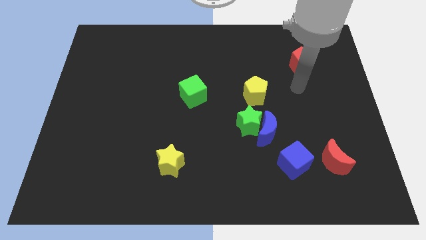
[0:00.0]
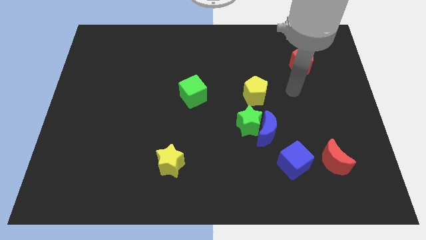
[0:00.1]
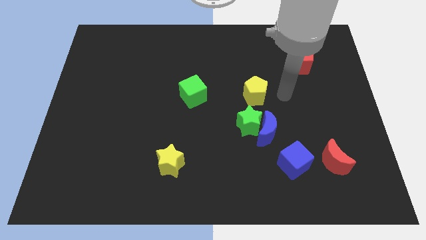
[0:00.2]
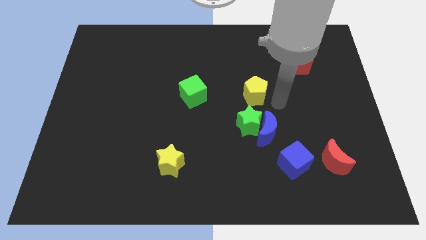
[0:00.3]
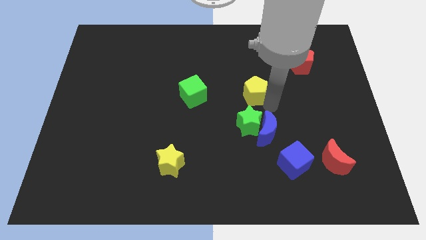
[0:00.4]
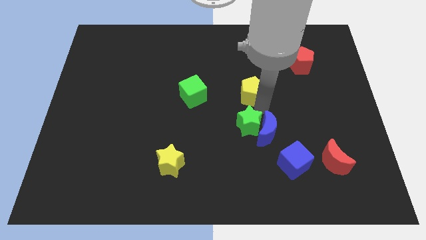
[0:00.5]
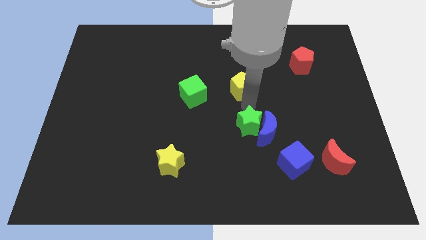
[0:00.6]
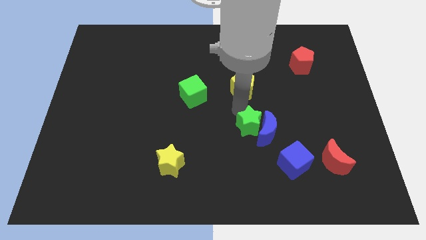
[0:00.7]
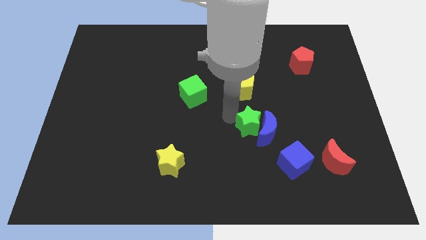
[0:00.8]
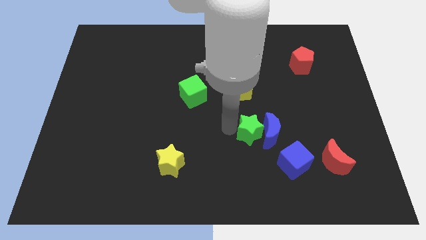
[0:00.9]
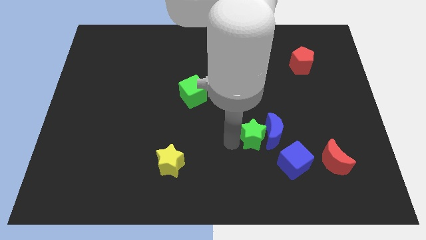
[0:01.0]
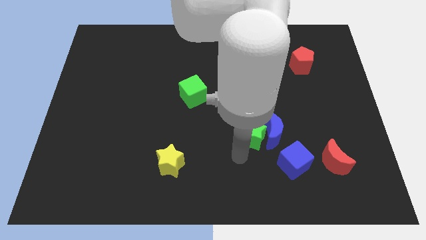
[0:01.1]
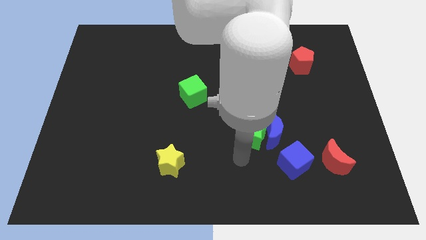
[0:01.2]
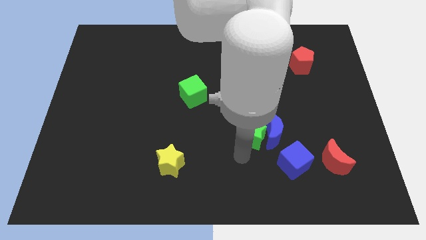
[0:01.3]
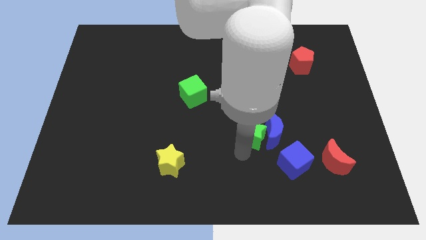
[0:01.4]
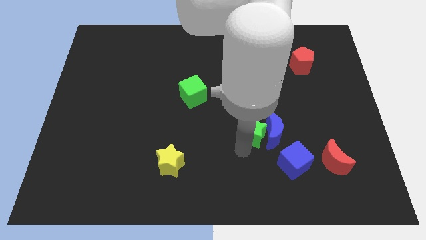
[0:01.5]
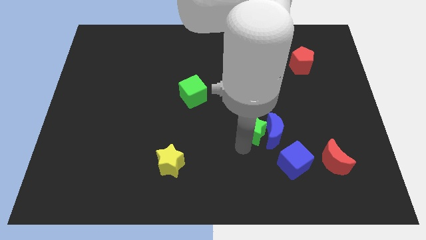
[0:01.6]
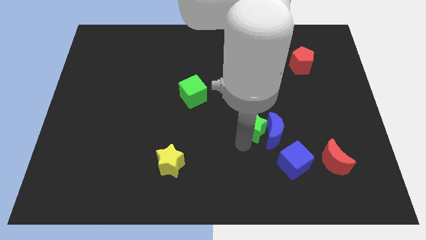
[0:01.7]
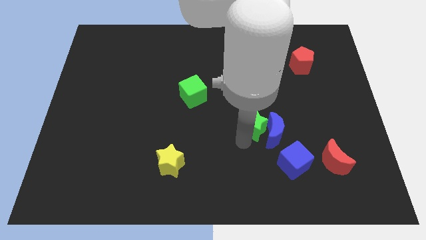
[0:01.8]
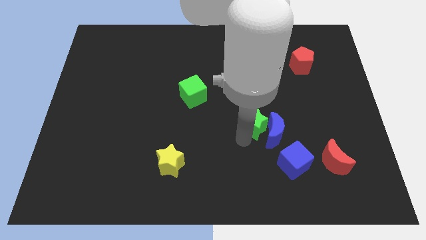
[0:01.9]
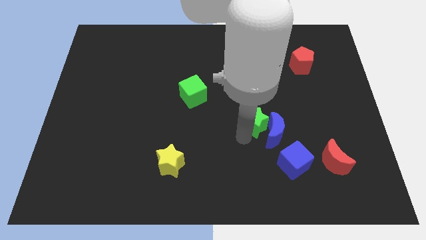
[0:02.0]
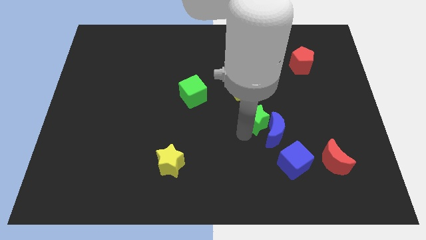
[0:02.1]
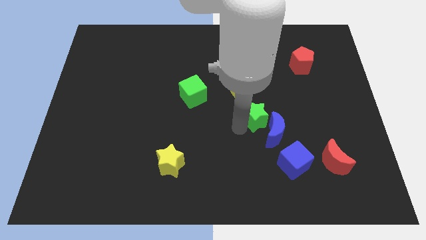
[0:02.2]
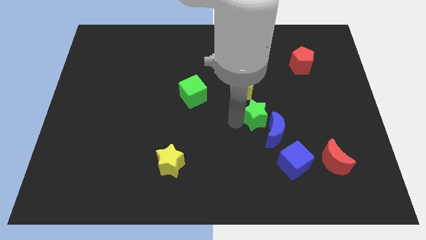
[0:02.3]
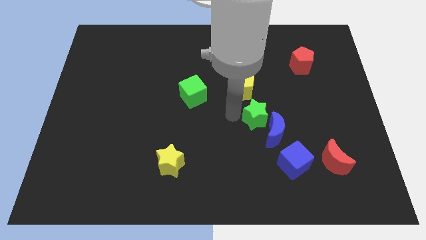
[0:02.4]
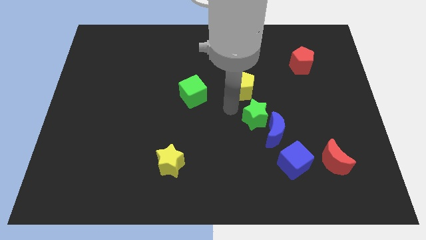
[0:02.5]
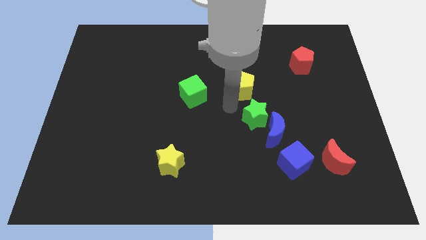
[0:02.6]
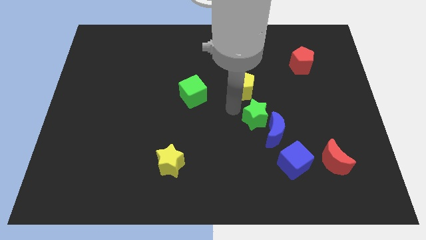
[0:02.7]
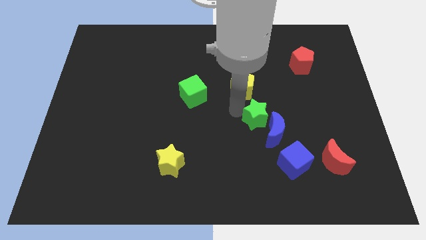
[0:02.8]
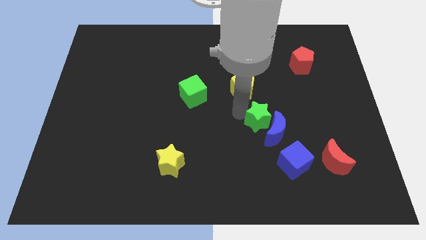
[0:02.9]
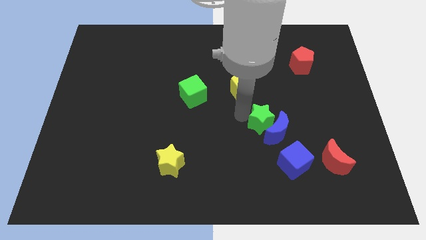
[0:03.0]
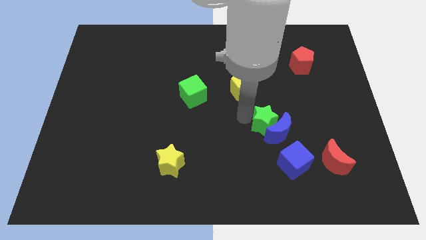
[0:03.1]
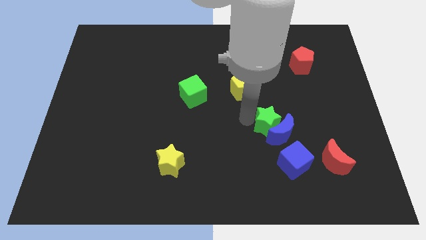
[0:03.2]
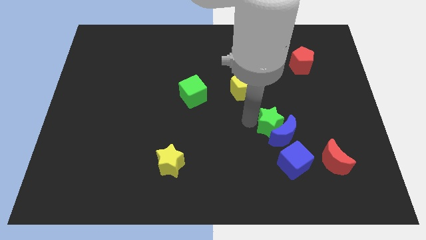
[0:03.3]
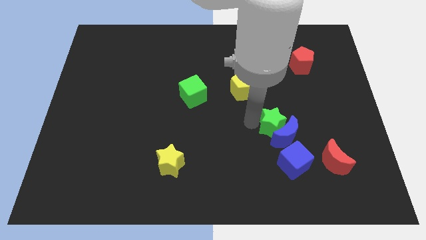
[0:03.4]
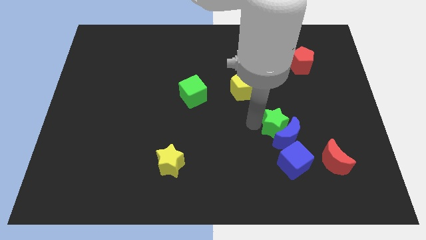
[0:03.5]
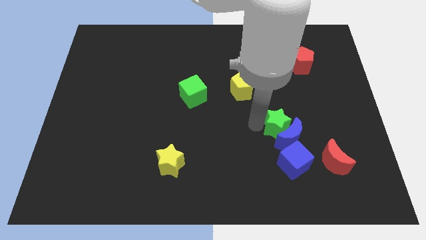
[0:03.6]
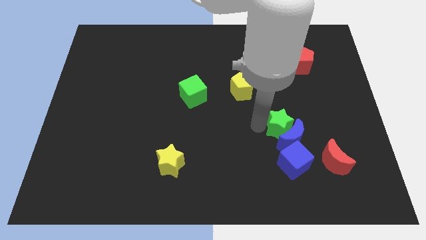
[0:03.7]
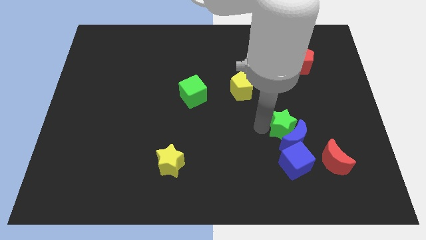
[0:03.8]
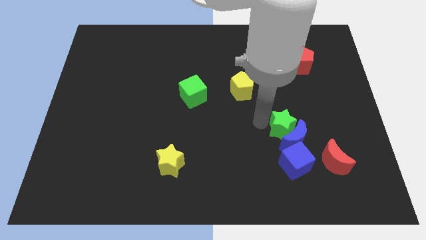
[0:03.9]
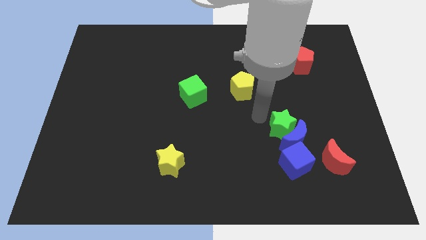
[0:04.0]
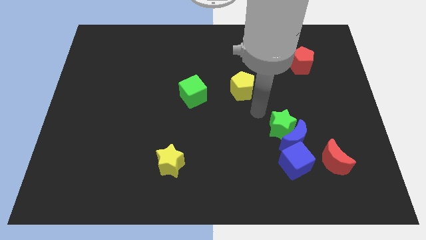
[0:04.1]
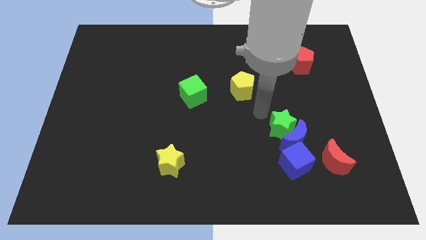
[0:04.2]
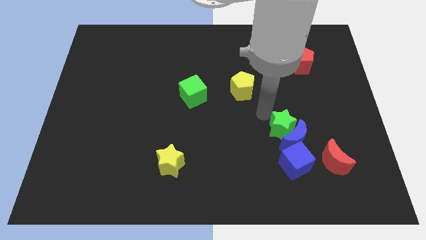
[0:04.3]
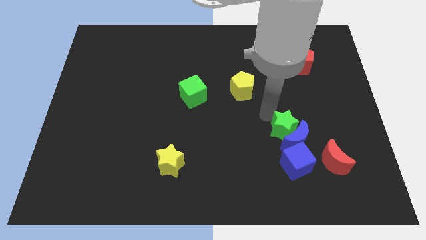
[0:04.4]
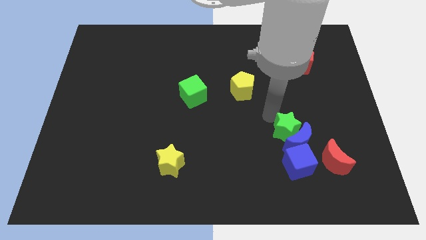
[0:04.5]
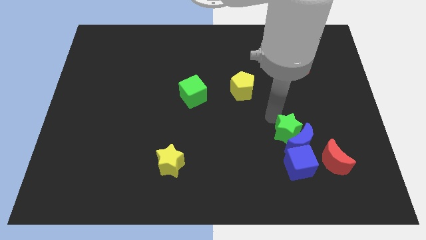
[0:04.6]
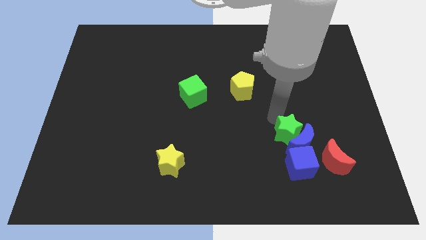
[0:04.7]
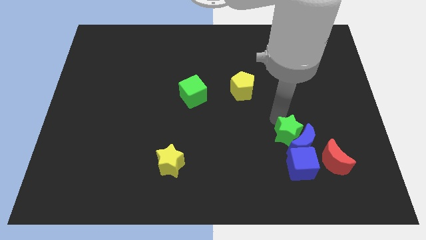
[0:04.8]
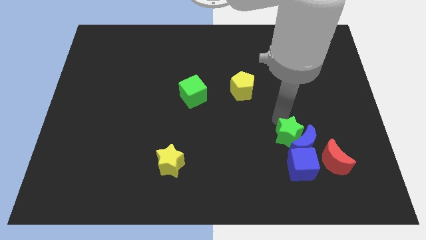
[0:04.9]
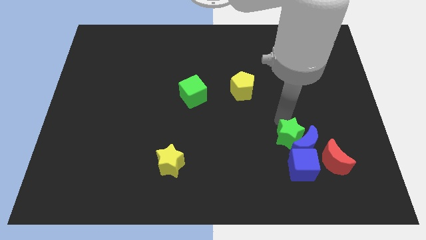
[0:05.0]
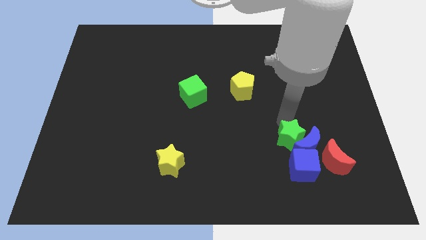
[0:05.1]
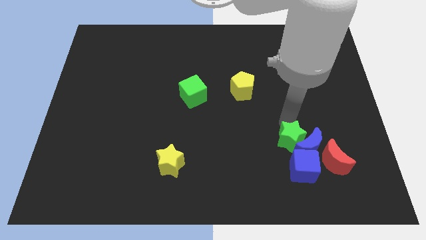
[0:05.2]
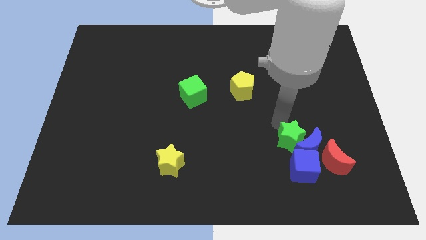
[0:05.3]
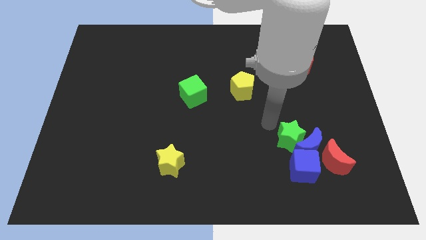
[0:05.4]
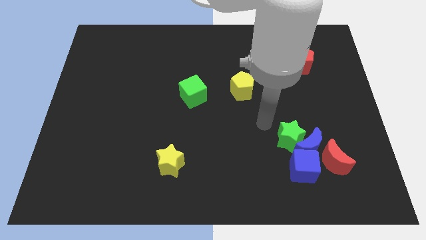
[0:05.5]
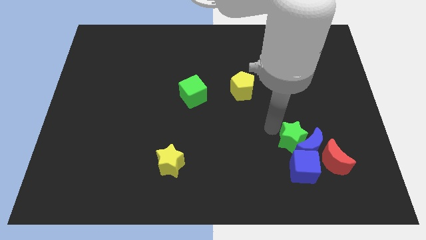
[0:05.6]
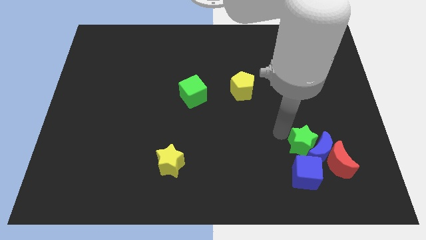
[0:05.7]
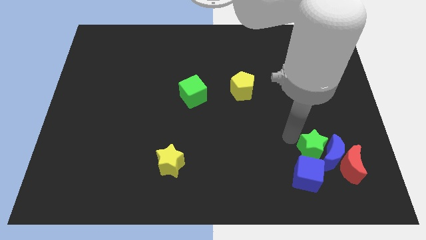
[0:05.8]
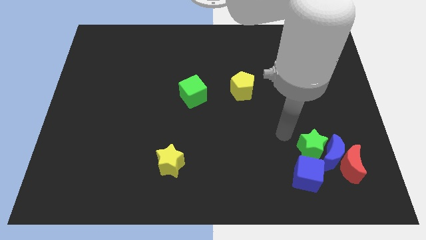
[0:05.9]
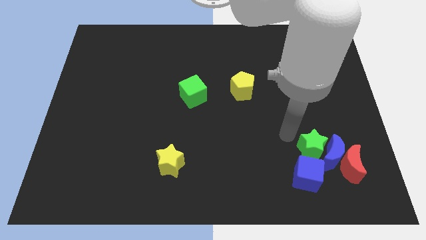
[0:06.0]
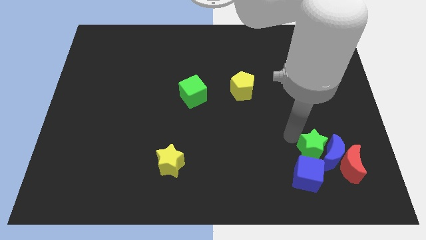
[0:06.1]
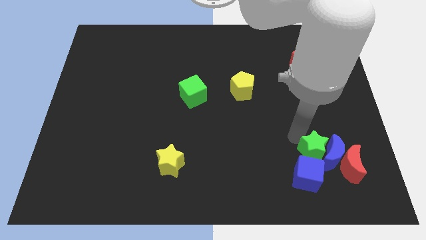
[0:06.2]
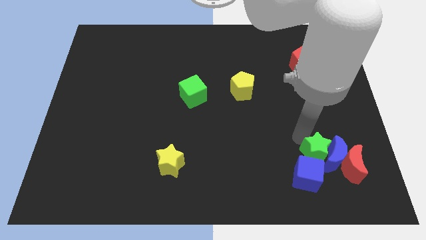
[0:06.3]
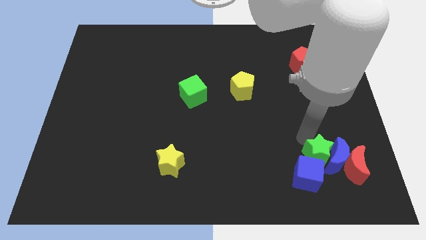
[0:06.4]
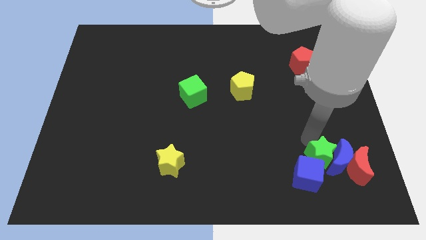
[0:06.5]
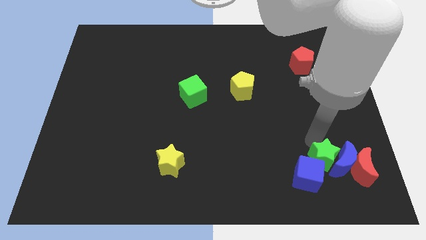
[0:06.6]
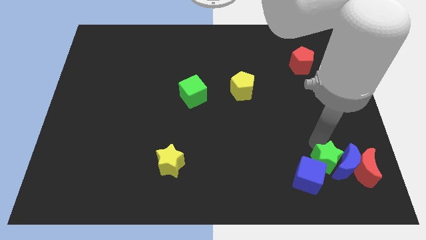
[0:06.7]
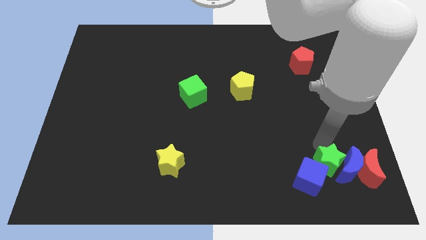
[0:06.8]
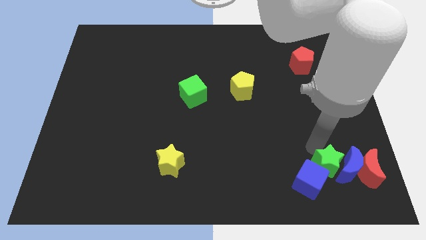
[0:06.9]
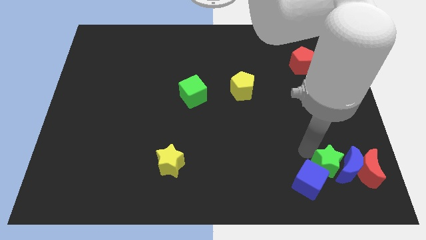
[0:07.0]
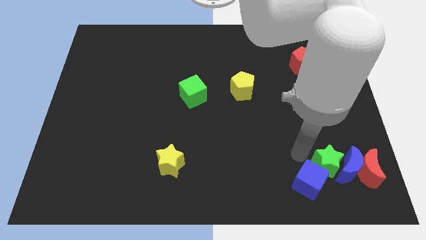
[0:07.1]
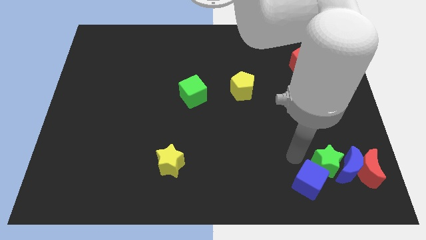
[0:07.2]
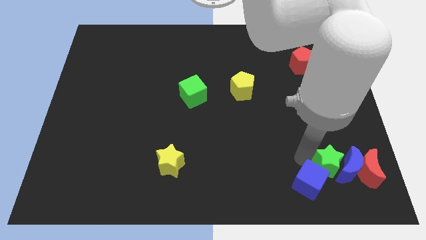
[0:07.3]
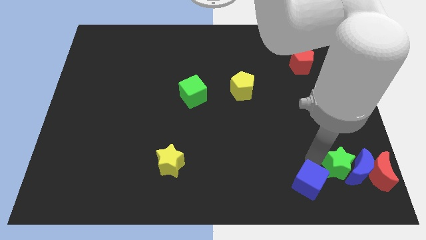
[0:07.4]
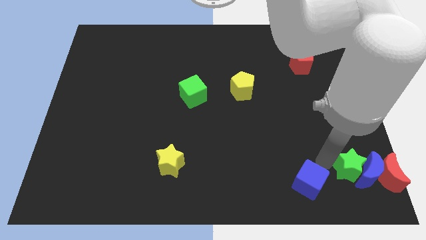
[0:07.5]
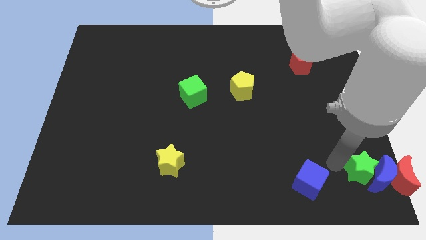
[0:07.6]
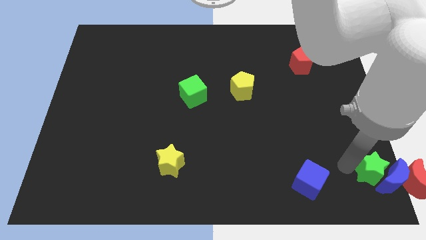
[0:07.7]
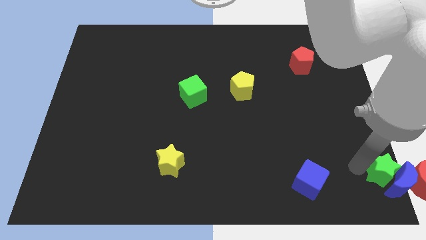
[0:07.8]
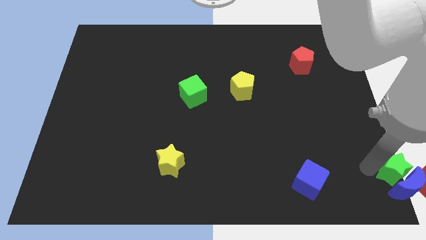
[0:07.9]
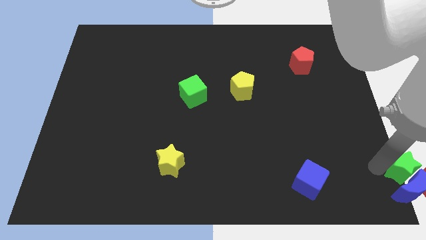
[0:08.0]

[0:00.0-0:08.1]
move the green star close to the red moon
